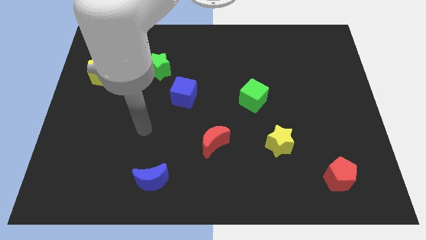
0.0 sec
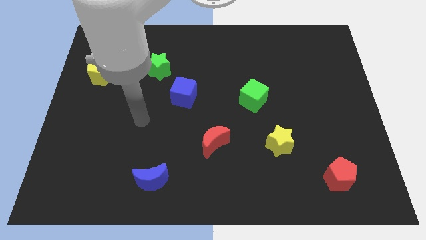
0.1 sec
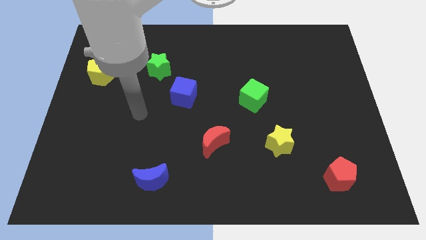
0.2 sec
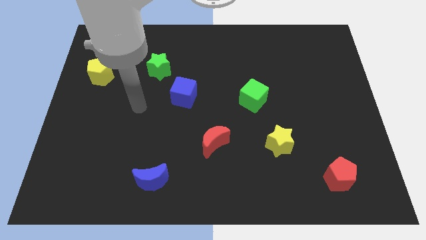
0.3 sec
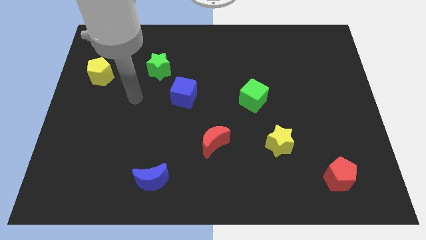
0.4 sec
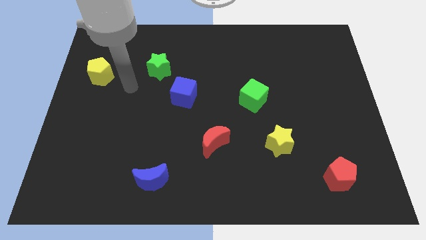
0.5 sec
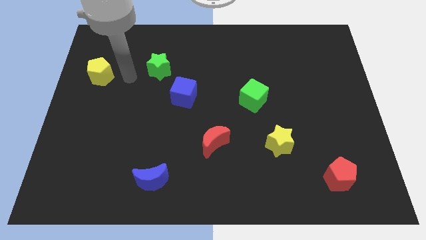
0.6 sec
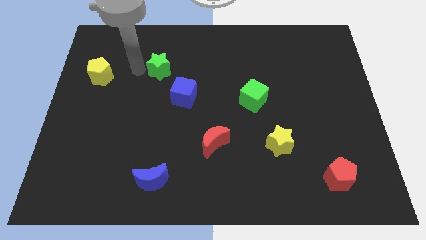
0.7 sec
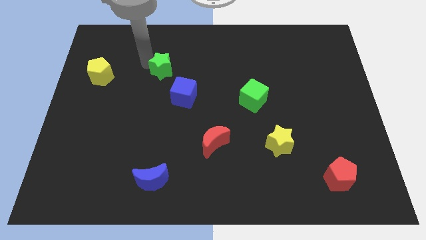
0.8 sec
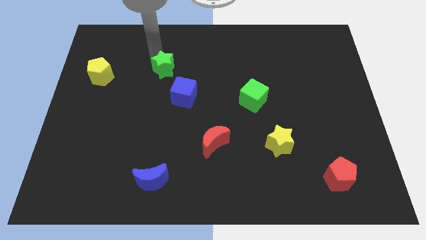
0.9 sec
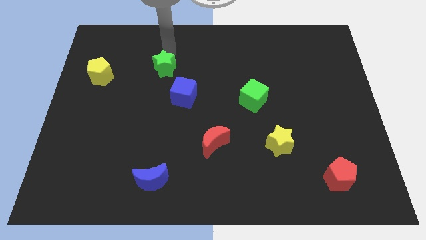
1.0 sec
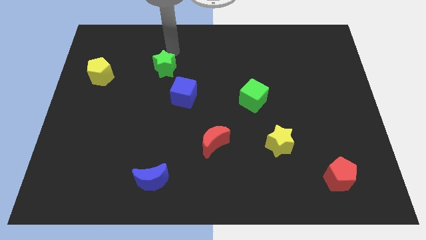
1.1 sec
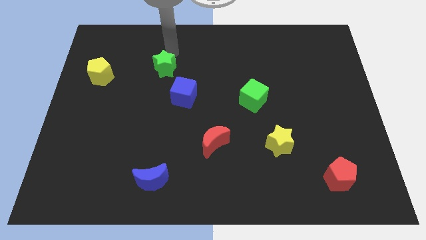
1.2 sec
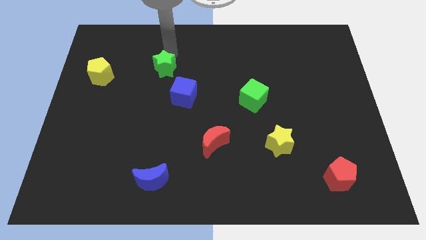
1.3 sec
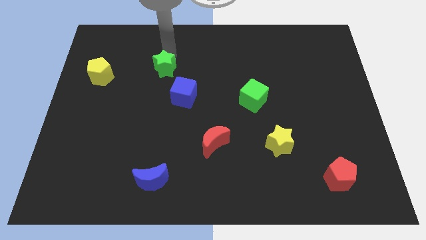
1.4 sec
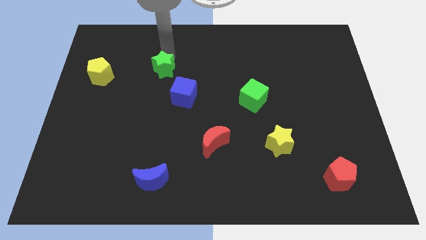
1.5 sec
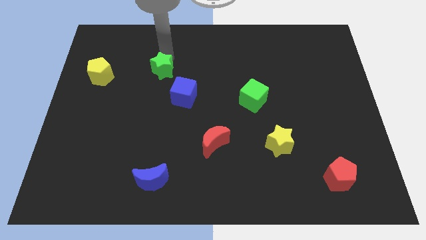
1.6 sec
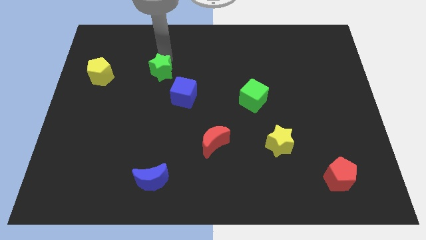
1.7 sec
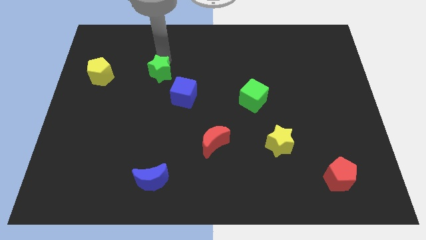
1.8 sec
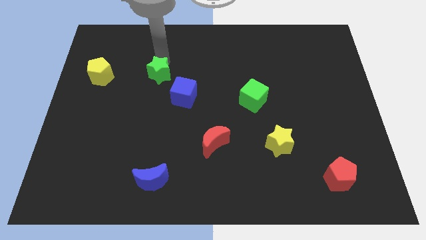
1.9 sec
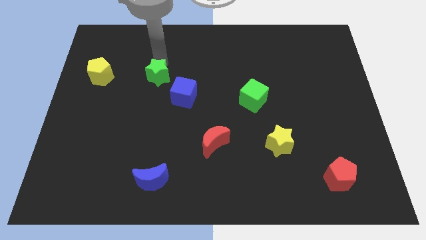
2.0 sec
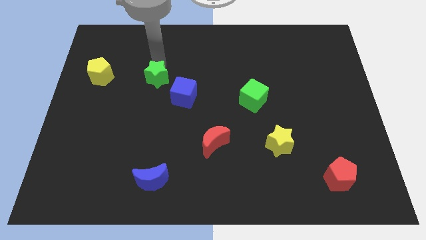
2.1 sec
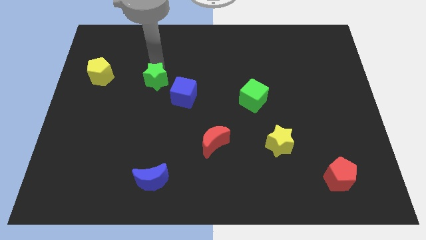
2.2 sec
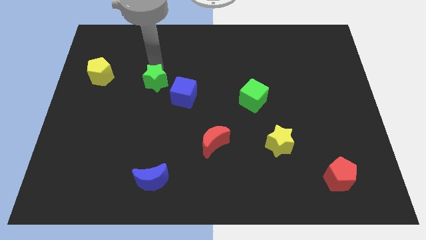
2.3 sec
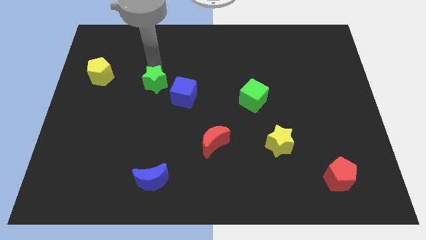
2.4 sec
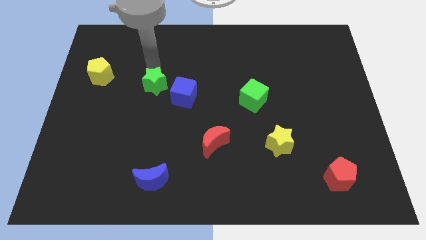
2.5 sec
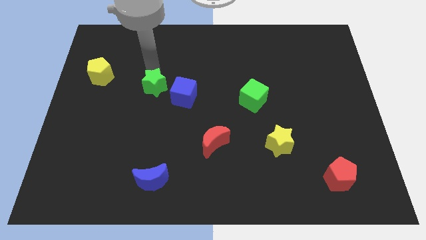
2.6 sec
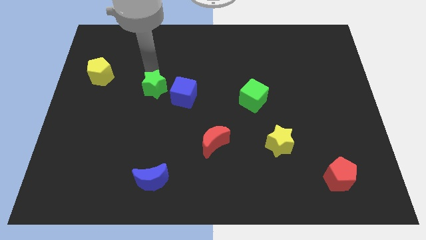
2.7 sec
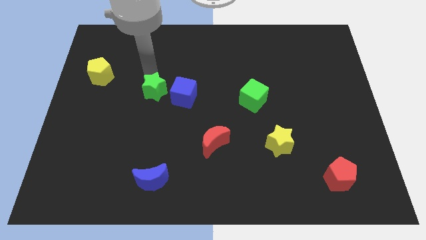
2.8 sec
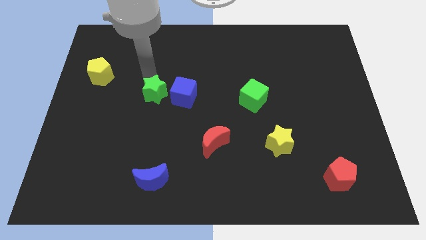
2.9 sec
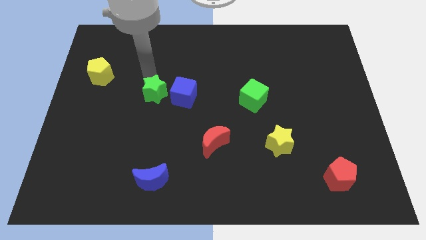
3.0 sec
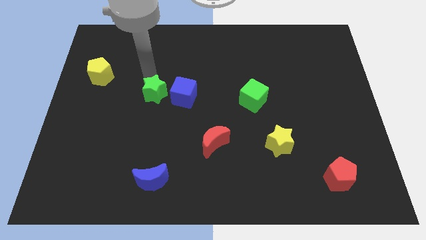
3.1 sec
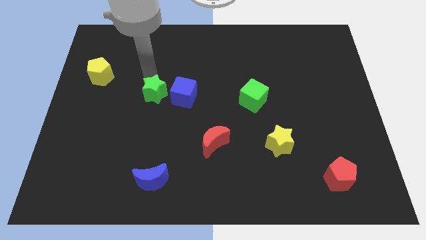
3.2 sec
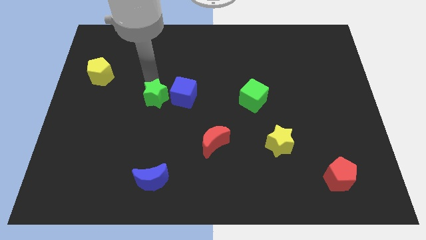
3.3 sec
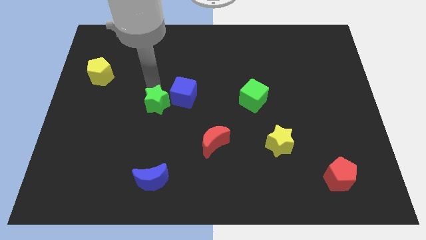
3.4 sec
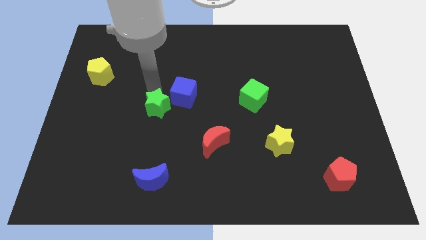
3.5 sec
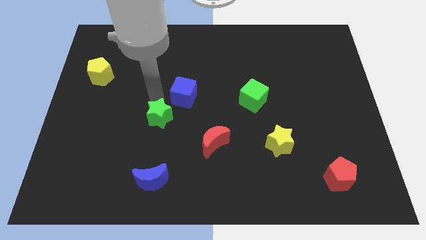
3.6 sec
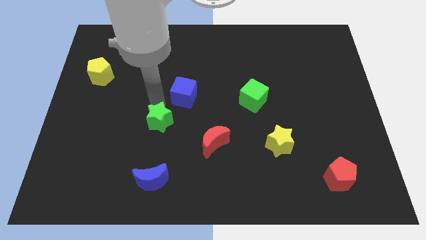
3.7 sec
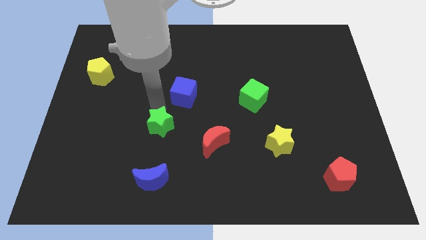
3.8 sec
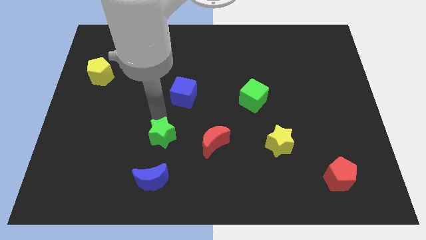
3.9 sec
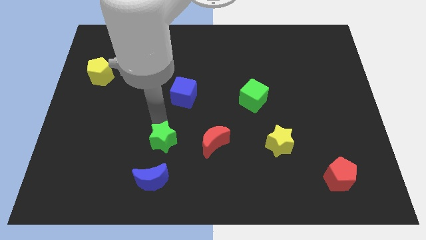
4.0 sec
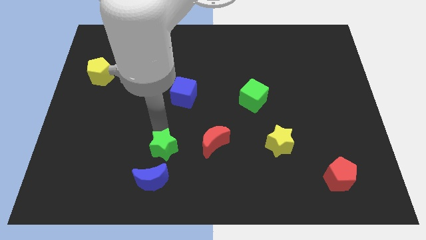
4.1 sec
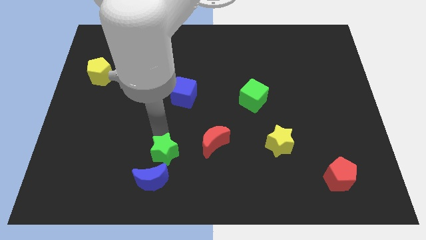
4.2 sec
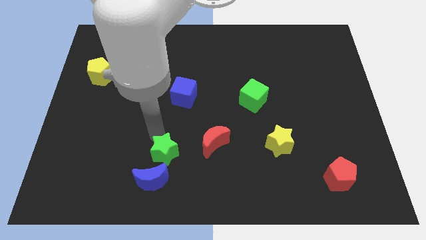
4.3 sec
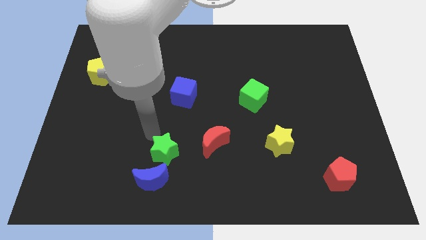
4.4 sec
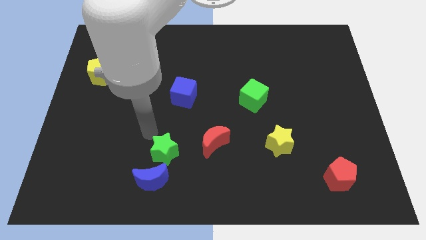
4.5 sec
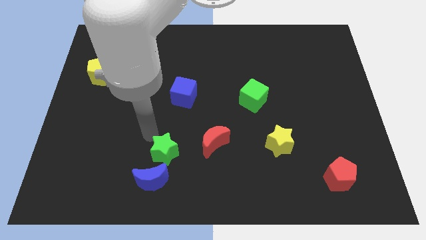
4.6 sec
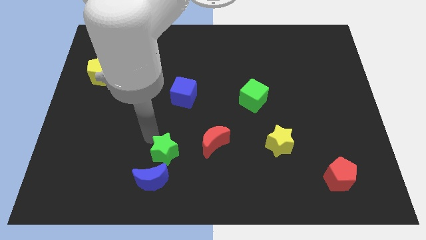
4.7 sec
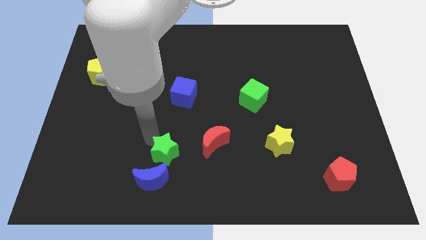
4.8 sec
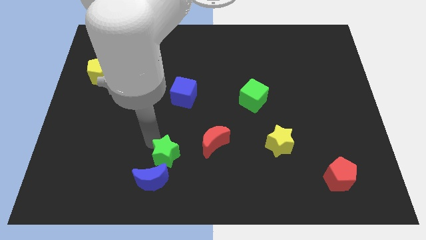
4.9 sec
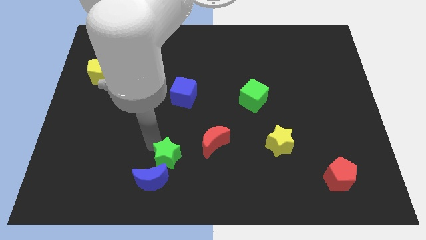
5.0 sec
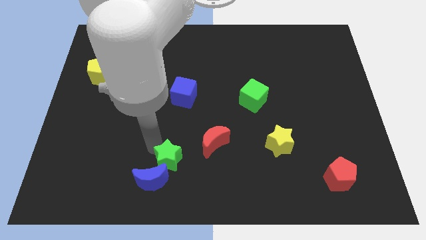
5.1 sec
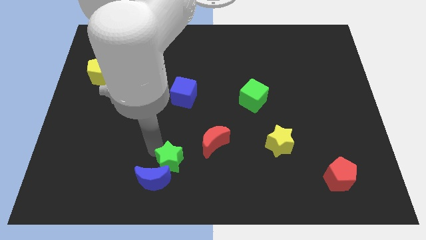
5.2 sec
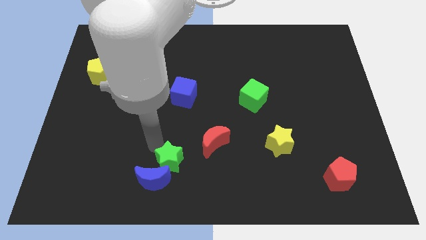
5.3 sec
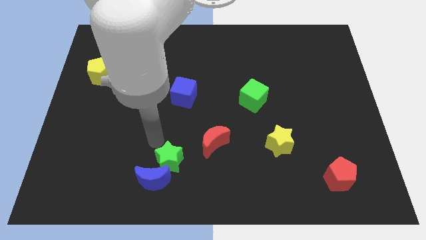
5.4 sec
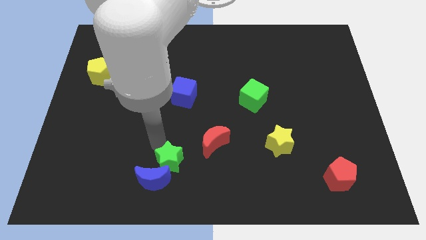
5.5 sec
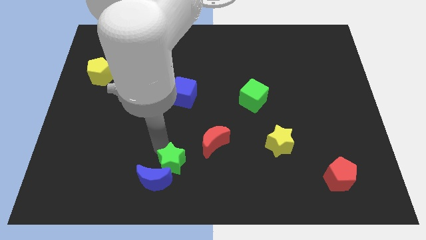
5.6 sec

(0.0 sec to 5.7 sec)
put the green star to the bottom
